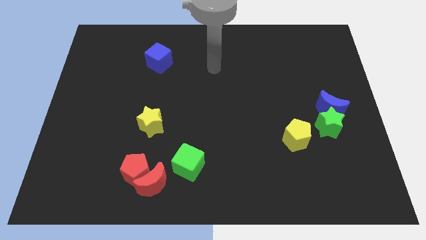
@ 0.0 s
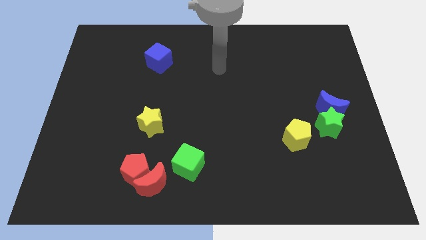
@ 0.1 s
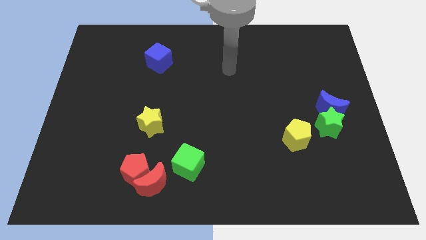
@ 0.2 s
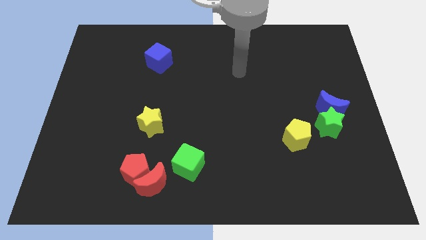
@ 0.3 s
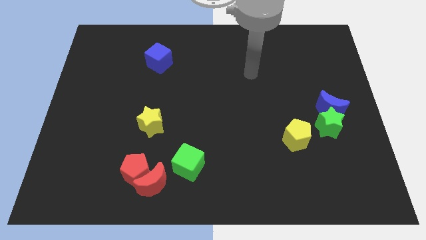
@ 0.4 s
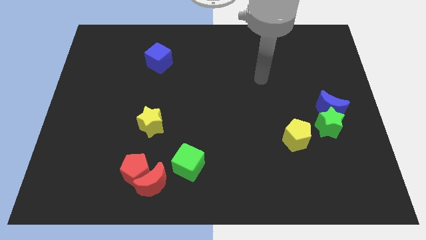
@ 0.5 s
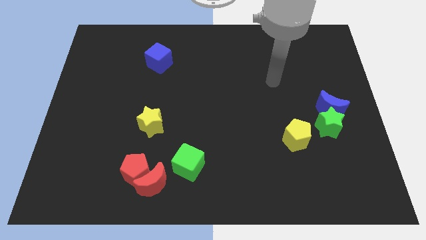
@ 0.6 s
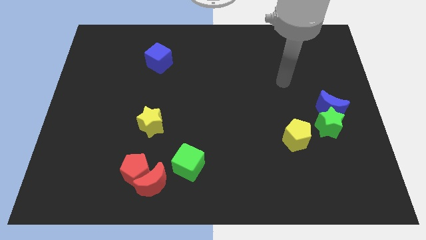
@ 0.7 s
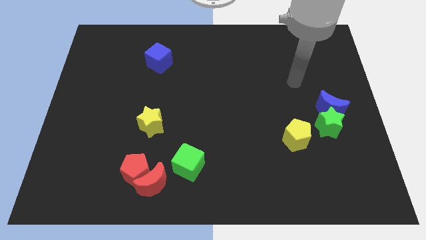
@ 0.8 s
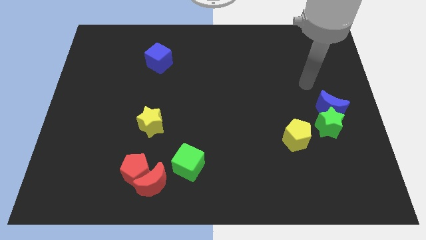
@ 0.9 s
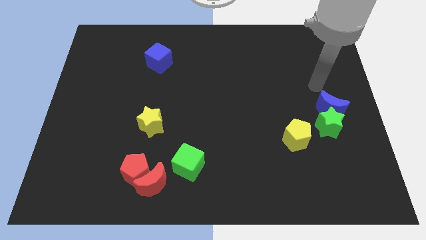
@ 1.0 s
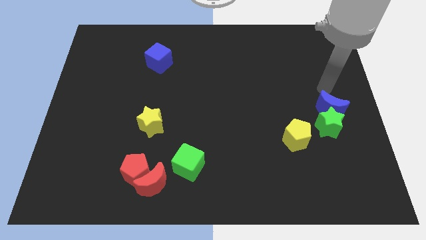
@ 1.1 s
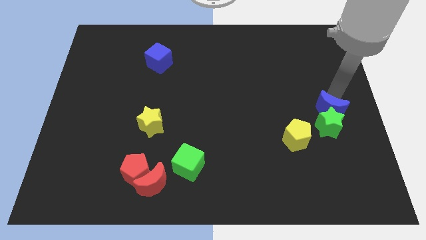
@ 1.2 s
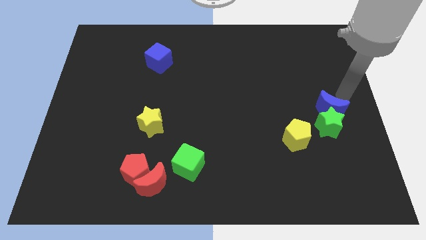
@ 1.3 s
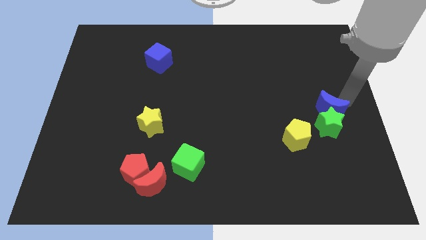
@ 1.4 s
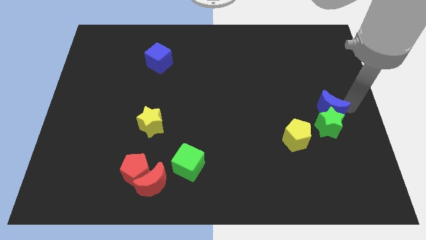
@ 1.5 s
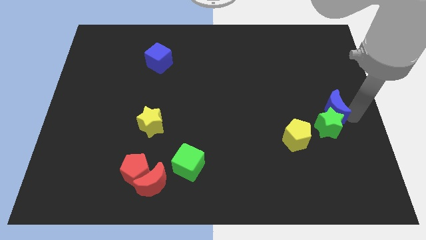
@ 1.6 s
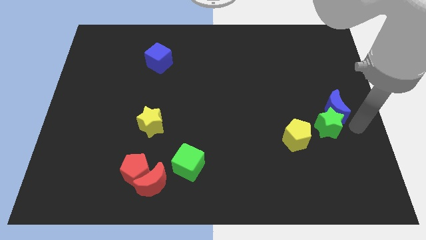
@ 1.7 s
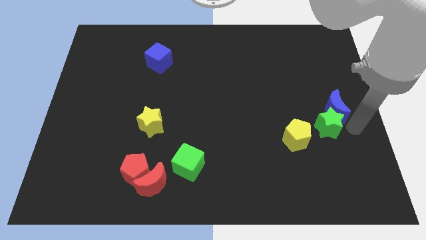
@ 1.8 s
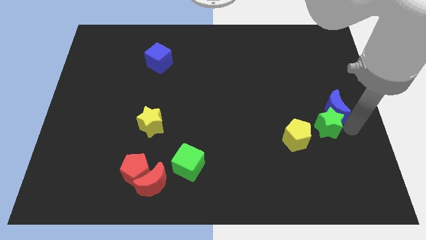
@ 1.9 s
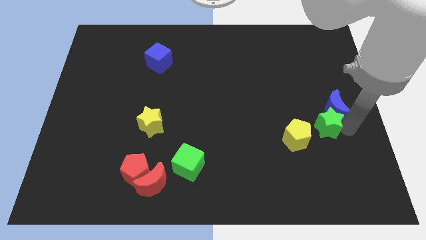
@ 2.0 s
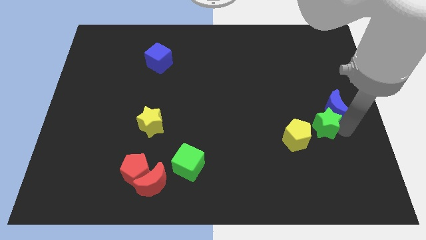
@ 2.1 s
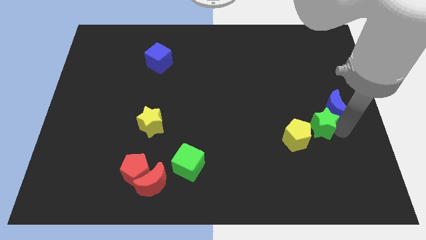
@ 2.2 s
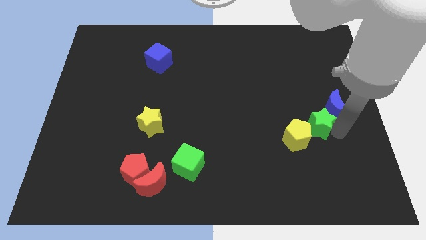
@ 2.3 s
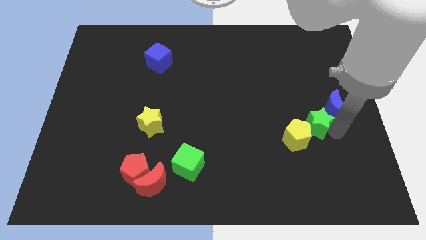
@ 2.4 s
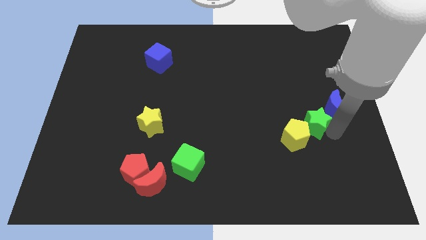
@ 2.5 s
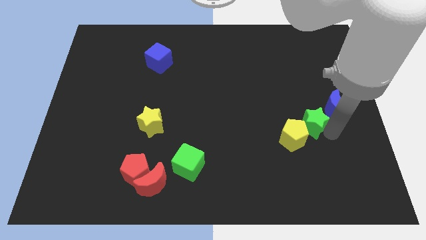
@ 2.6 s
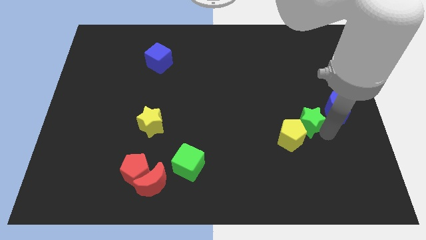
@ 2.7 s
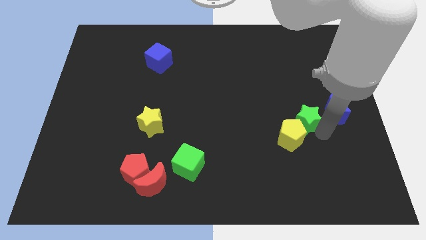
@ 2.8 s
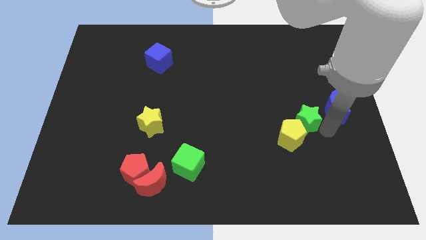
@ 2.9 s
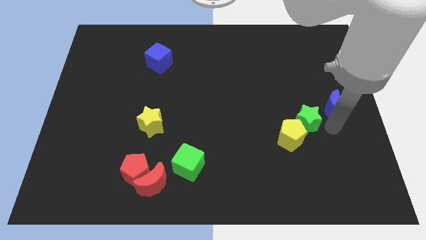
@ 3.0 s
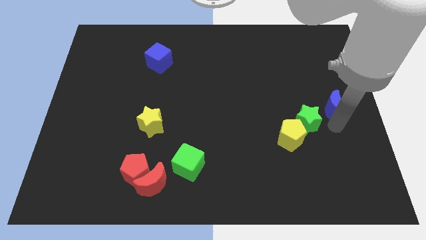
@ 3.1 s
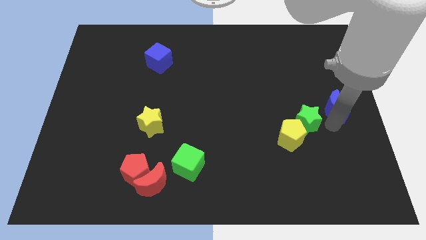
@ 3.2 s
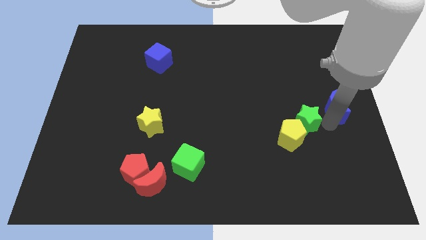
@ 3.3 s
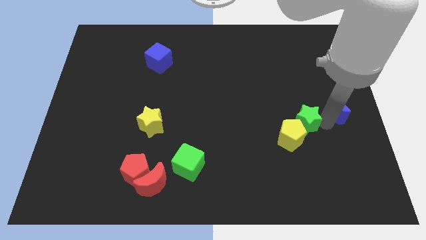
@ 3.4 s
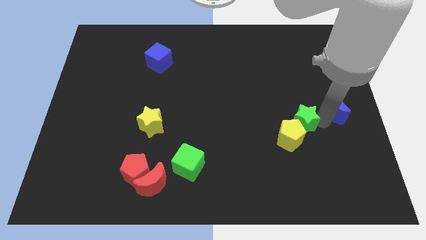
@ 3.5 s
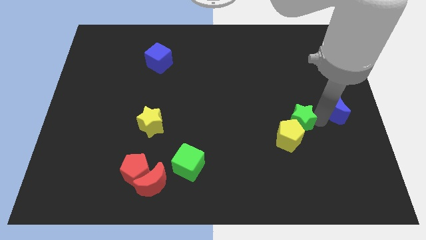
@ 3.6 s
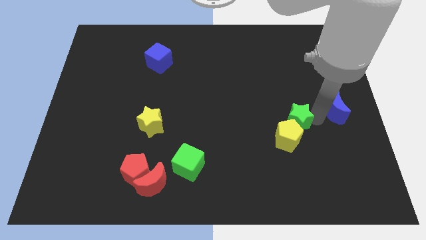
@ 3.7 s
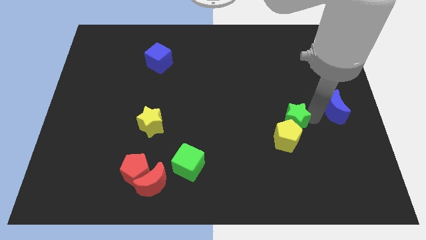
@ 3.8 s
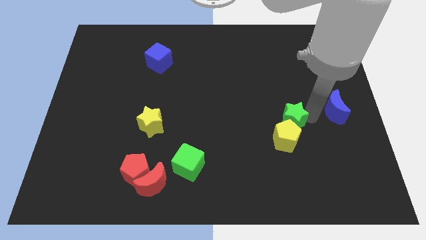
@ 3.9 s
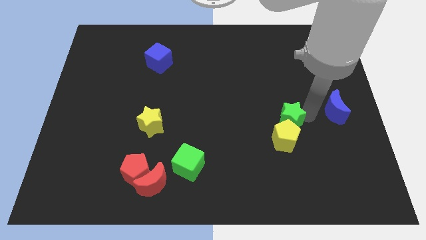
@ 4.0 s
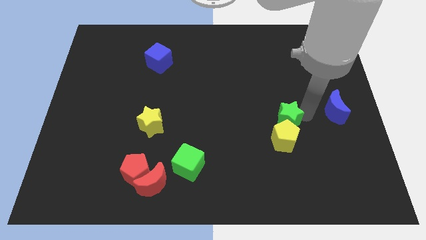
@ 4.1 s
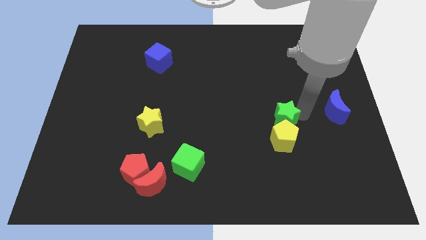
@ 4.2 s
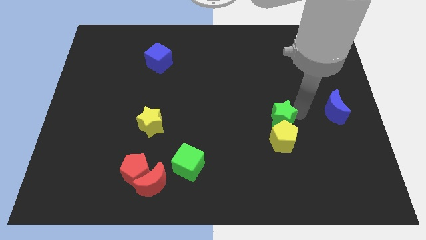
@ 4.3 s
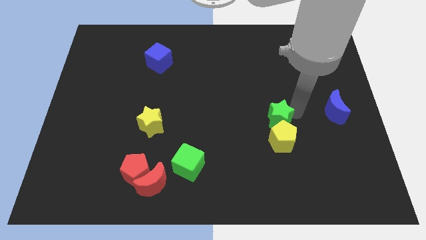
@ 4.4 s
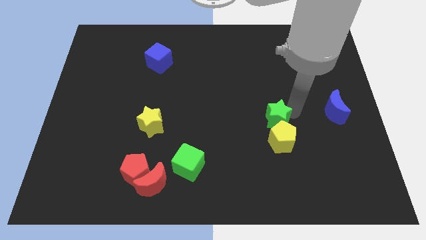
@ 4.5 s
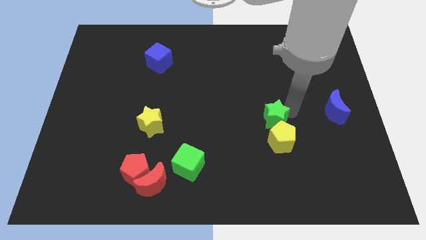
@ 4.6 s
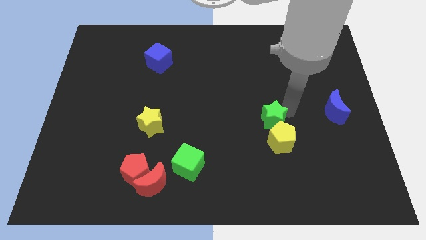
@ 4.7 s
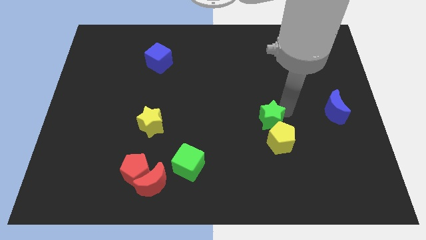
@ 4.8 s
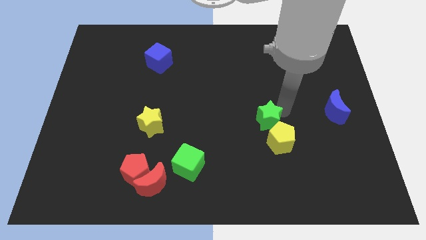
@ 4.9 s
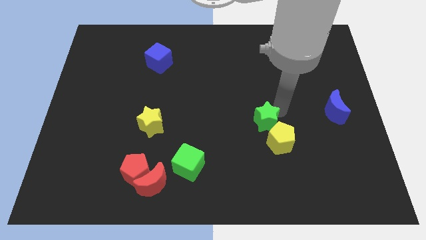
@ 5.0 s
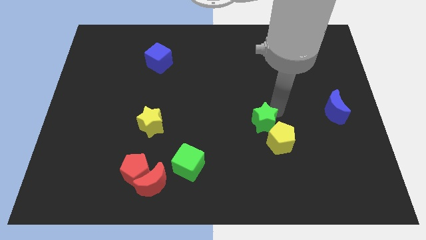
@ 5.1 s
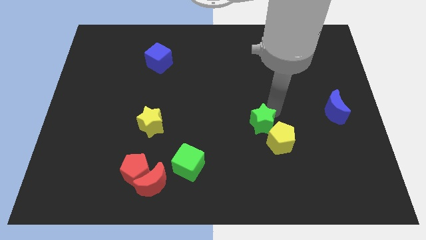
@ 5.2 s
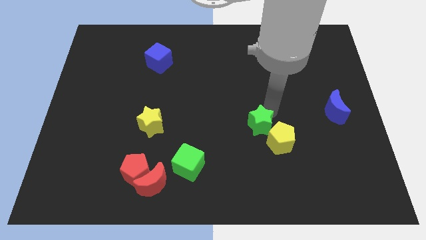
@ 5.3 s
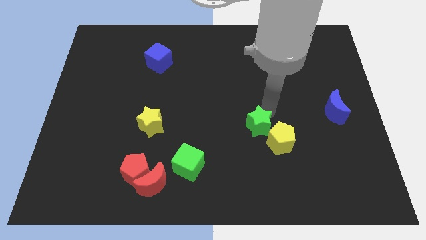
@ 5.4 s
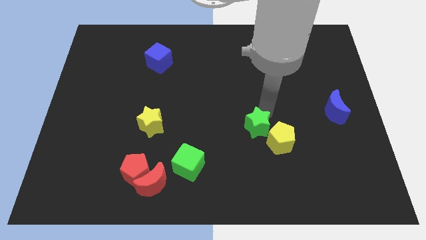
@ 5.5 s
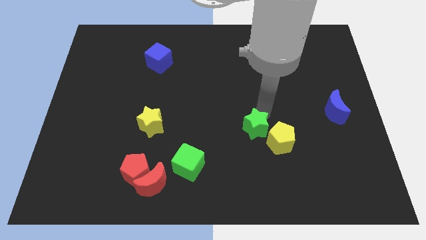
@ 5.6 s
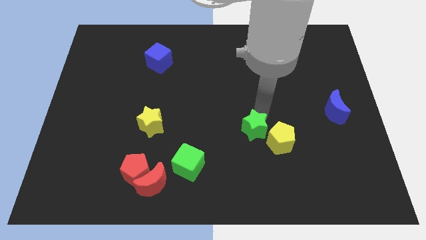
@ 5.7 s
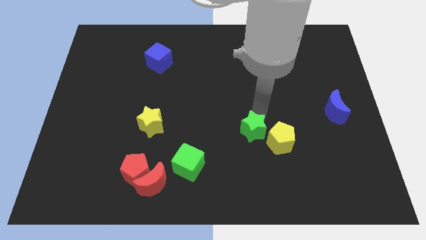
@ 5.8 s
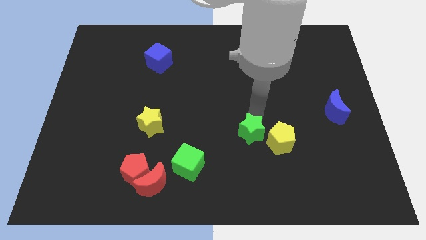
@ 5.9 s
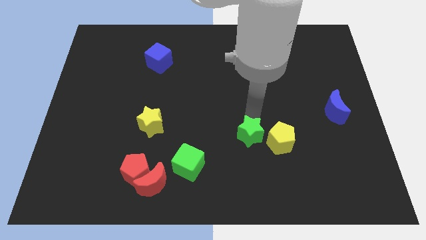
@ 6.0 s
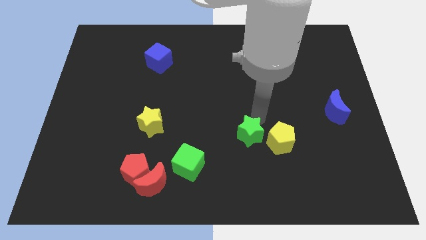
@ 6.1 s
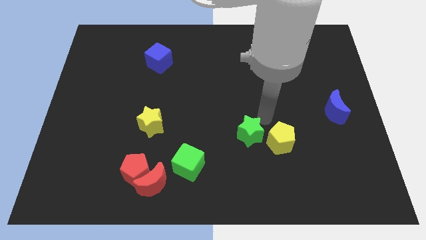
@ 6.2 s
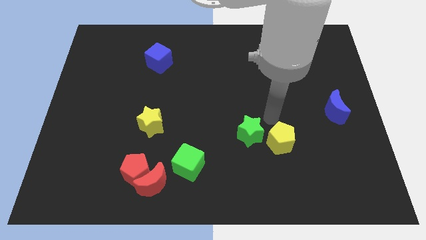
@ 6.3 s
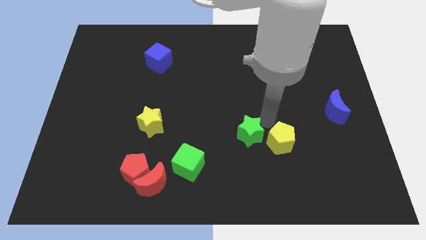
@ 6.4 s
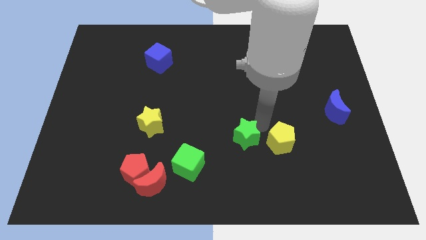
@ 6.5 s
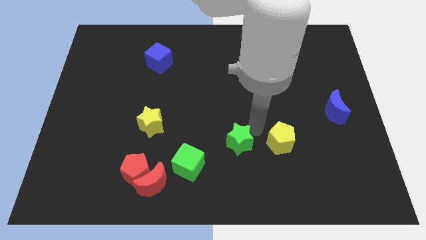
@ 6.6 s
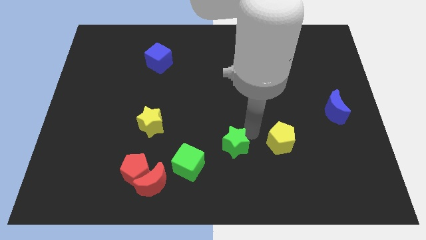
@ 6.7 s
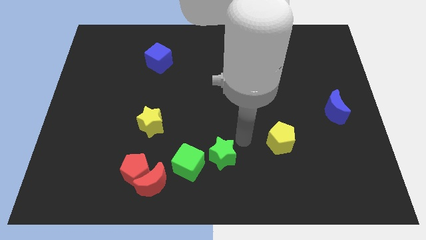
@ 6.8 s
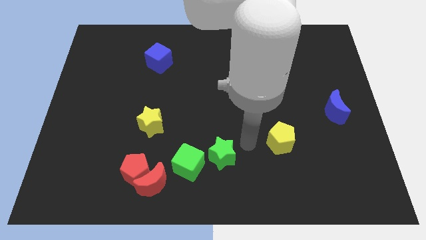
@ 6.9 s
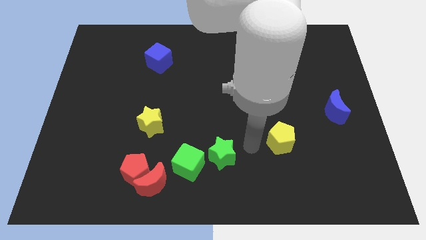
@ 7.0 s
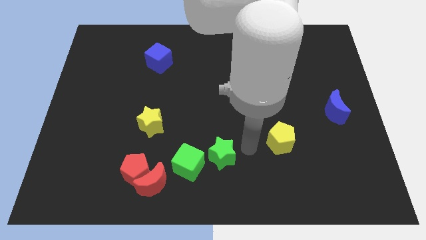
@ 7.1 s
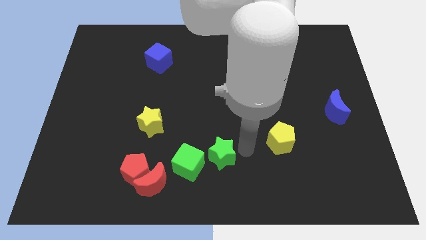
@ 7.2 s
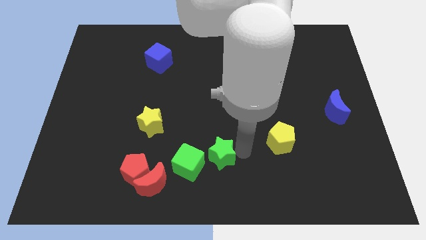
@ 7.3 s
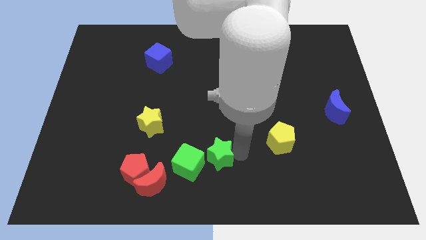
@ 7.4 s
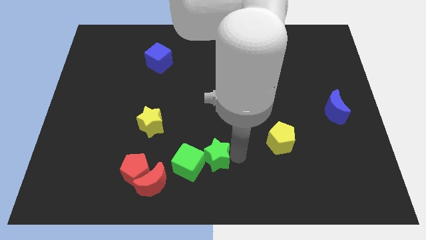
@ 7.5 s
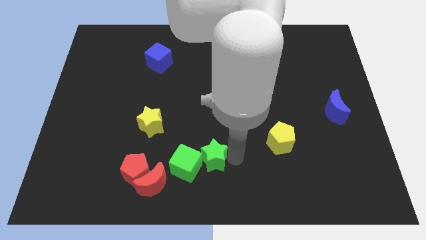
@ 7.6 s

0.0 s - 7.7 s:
put the green star close to the green cube
